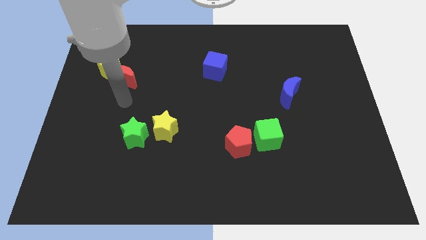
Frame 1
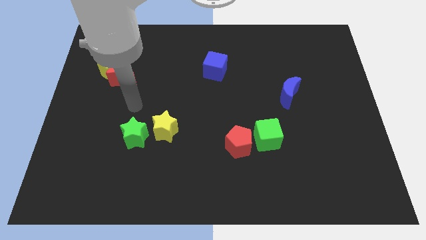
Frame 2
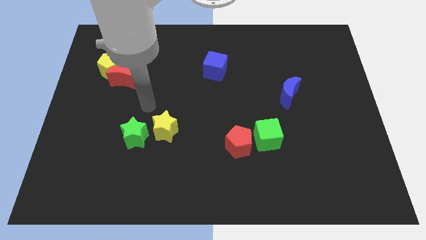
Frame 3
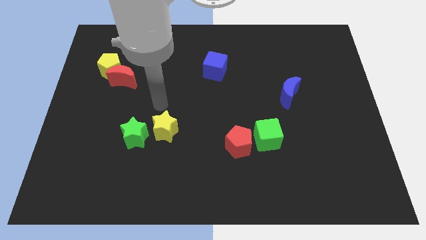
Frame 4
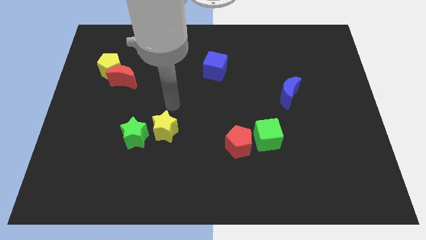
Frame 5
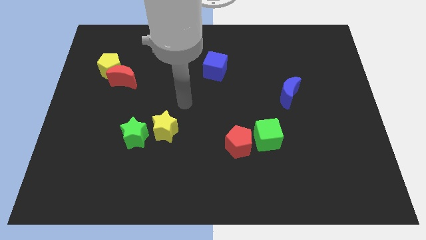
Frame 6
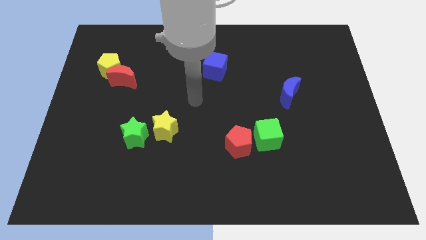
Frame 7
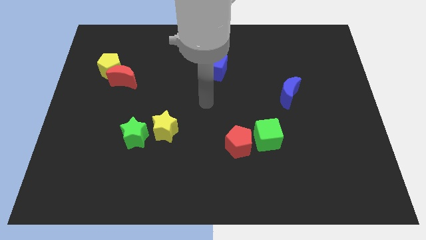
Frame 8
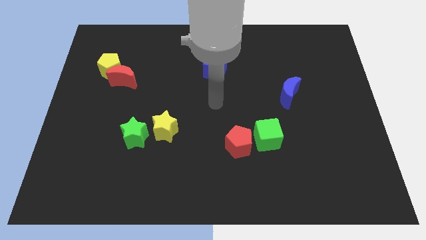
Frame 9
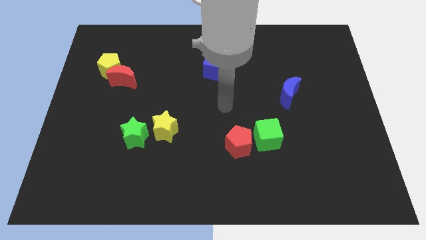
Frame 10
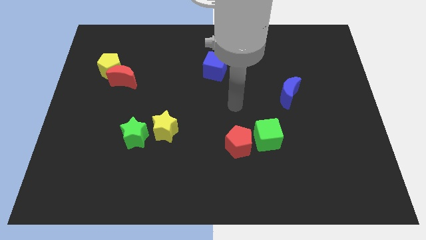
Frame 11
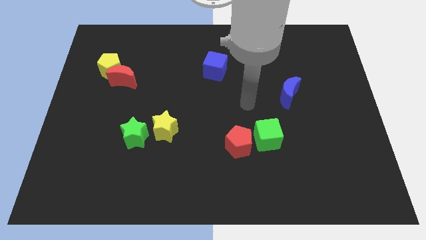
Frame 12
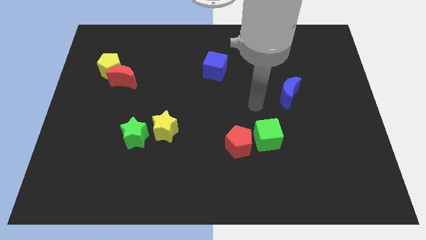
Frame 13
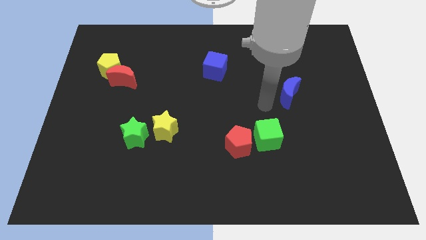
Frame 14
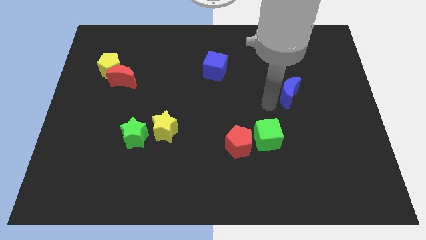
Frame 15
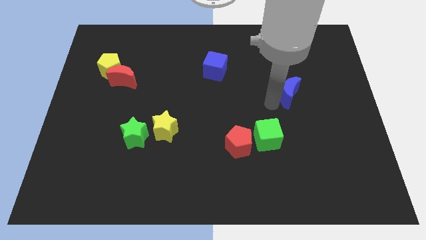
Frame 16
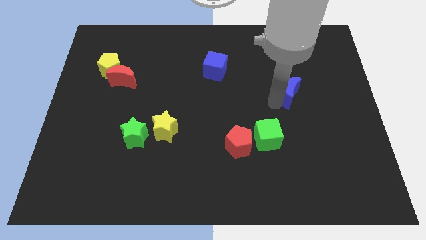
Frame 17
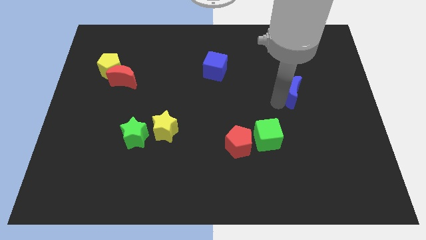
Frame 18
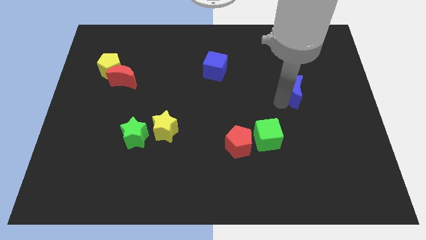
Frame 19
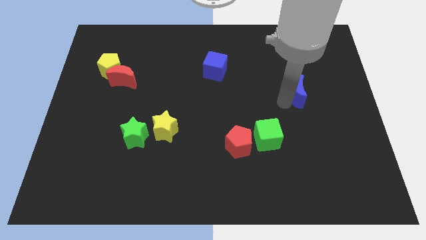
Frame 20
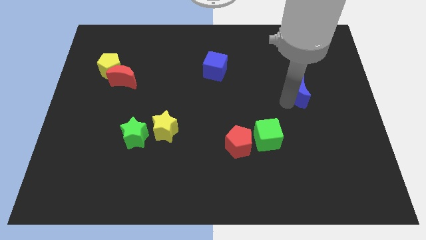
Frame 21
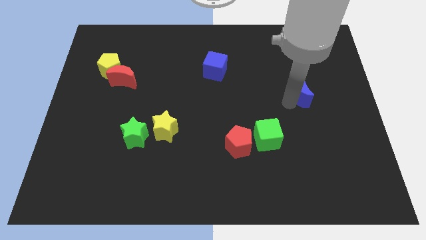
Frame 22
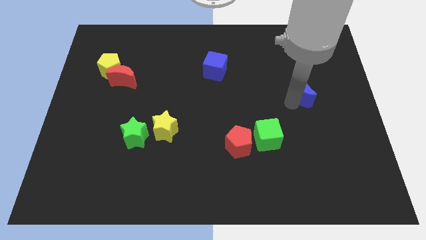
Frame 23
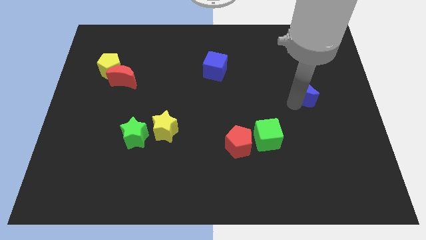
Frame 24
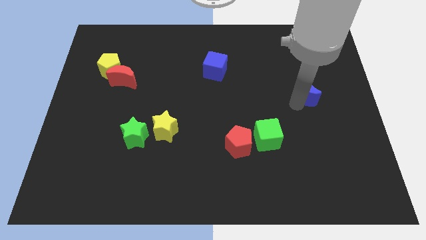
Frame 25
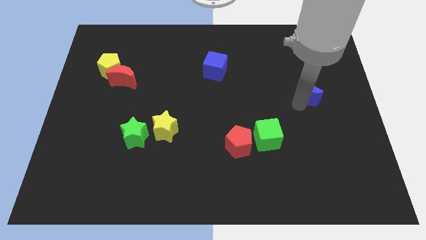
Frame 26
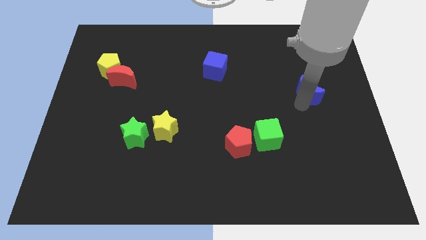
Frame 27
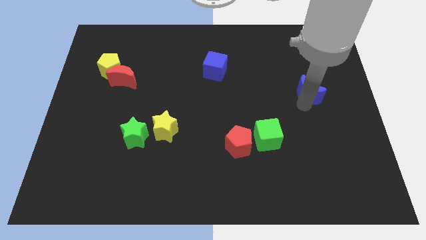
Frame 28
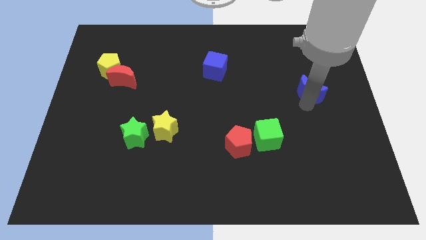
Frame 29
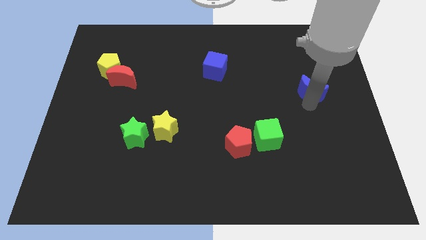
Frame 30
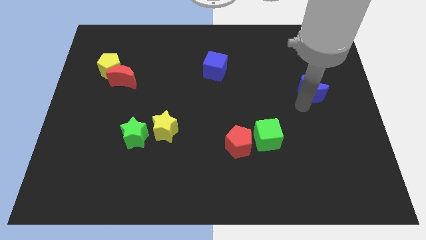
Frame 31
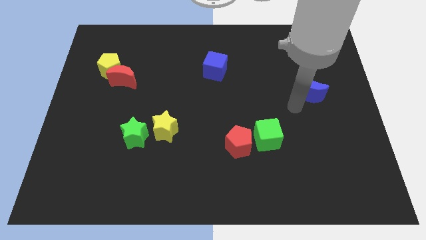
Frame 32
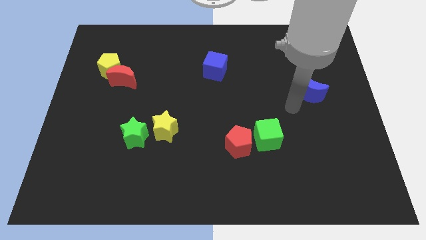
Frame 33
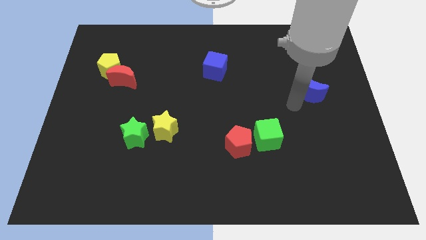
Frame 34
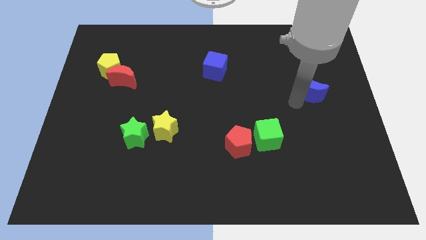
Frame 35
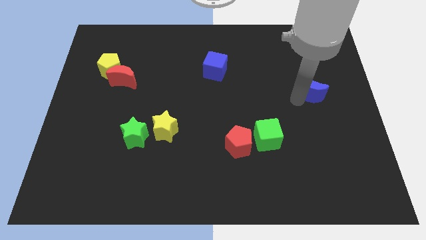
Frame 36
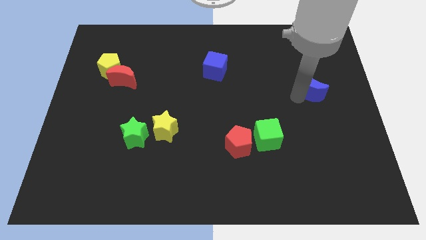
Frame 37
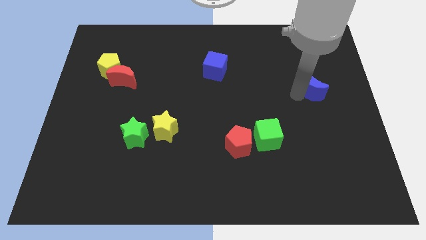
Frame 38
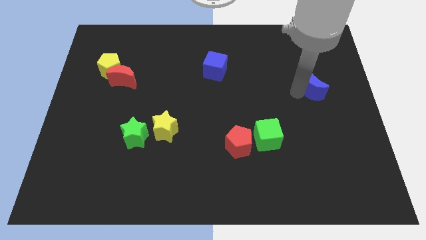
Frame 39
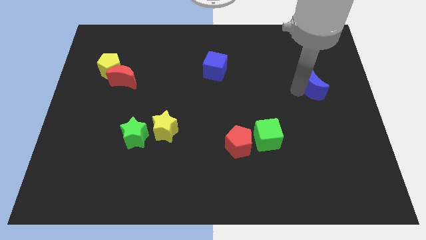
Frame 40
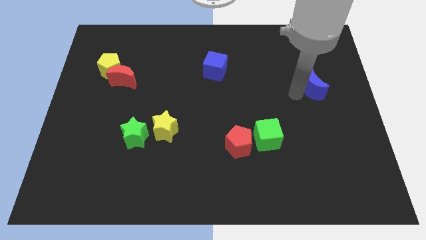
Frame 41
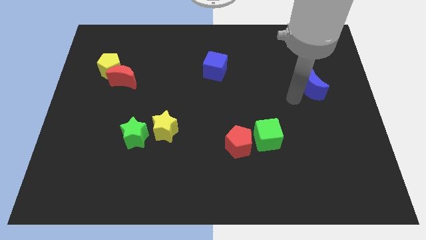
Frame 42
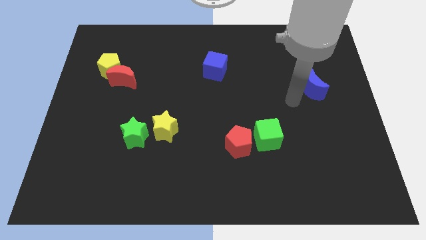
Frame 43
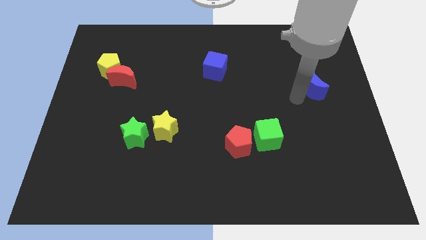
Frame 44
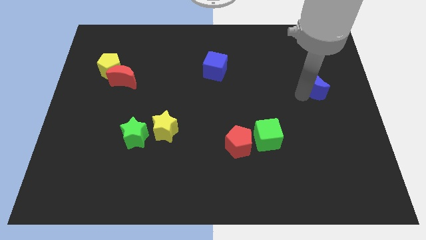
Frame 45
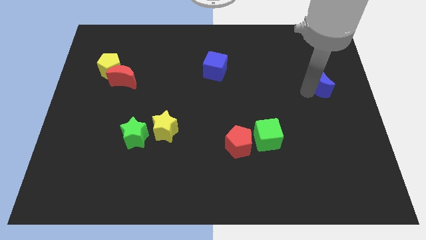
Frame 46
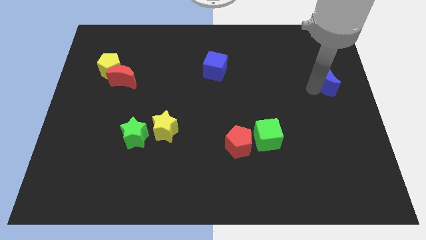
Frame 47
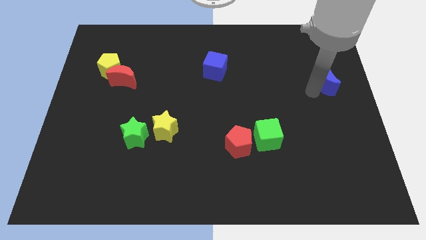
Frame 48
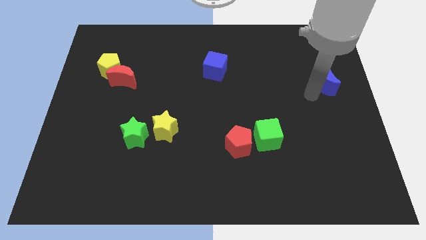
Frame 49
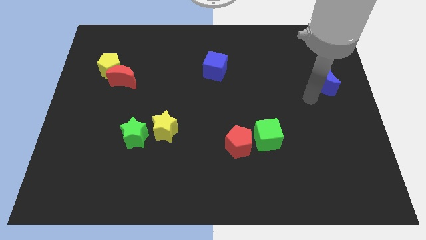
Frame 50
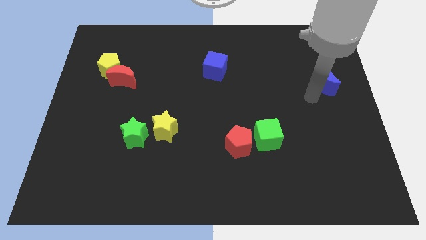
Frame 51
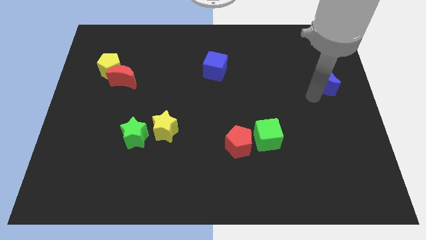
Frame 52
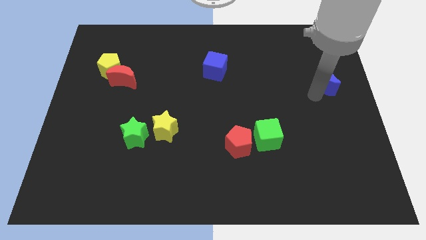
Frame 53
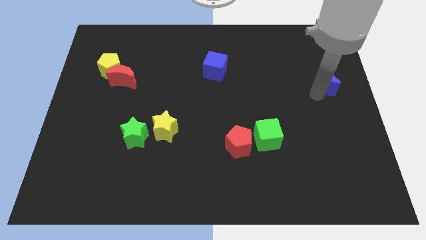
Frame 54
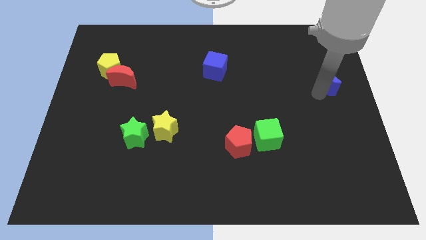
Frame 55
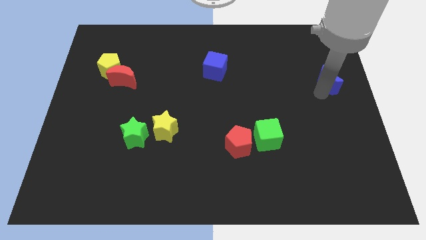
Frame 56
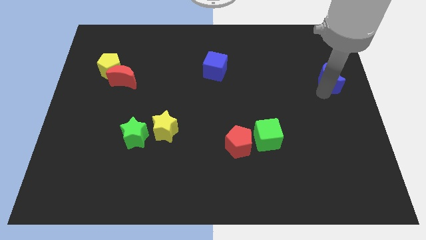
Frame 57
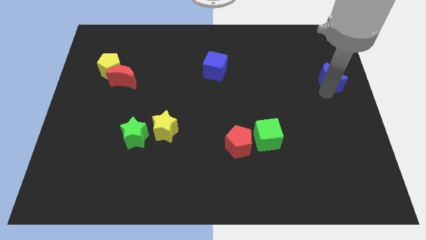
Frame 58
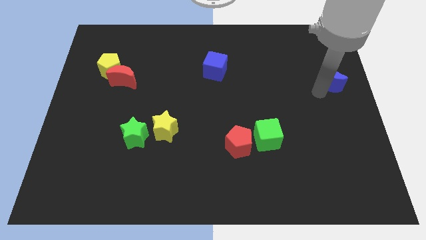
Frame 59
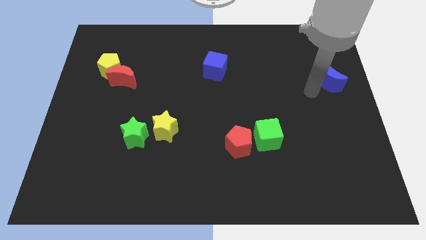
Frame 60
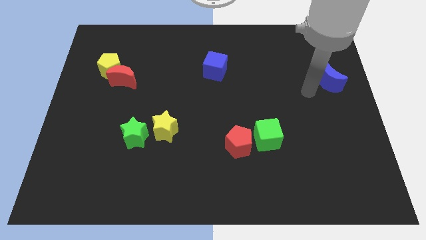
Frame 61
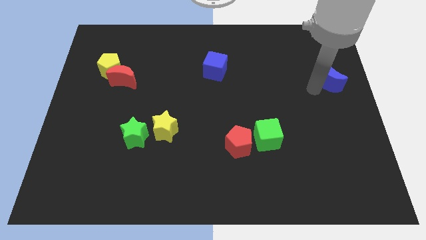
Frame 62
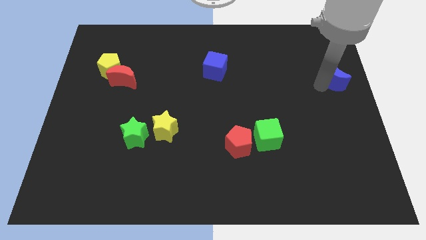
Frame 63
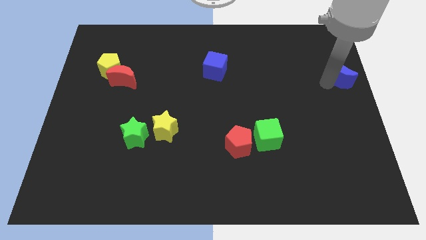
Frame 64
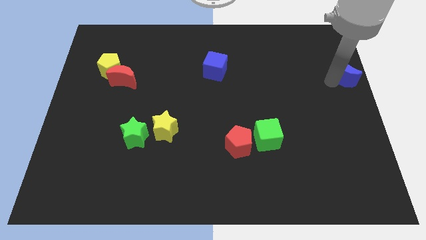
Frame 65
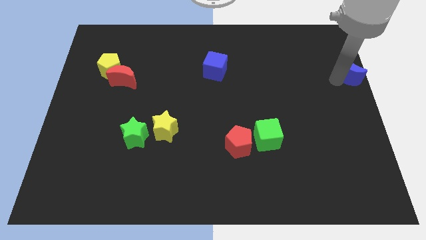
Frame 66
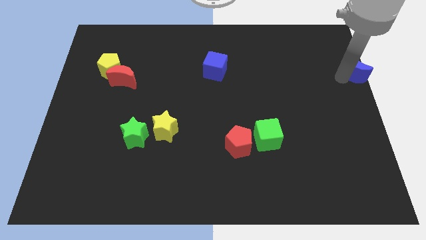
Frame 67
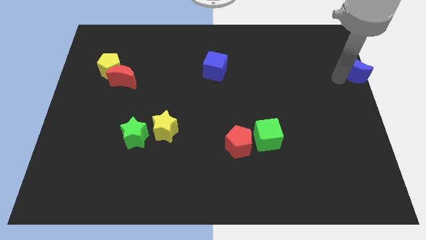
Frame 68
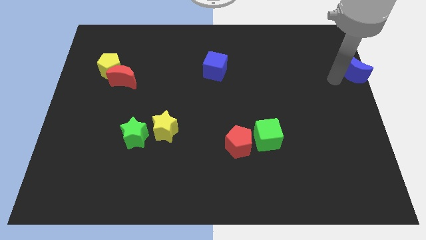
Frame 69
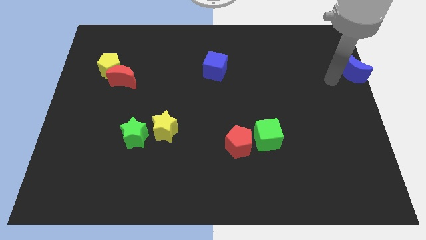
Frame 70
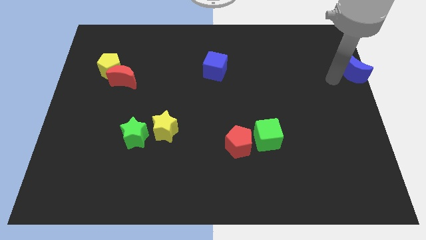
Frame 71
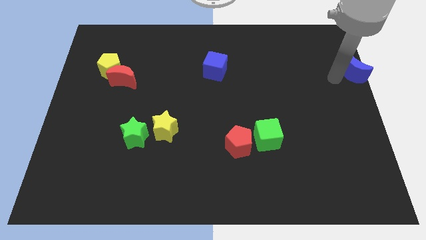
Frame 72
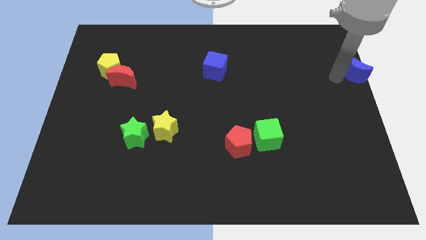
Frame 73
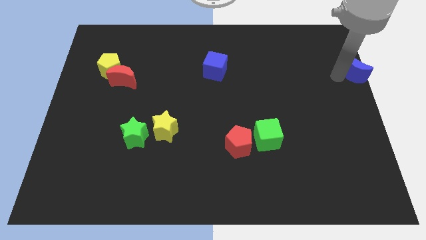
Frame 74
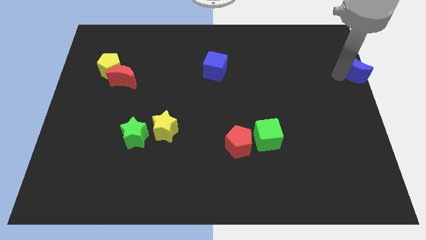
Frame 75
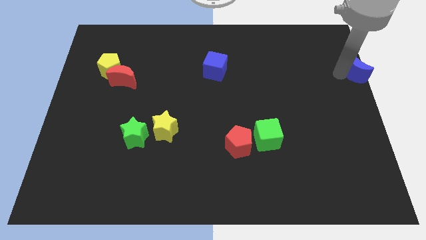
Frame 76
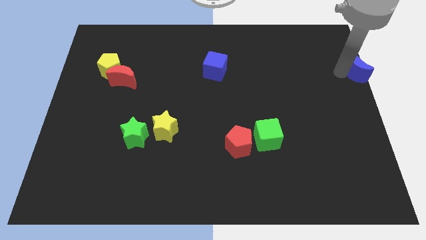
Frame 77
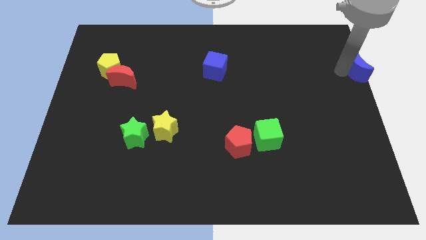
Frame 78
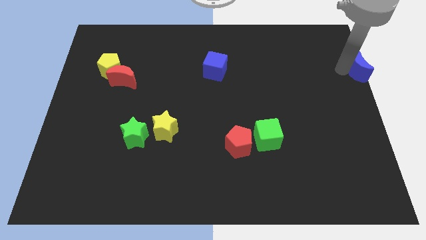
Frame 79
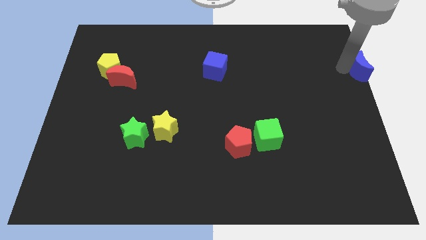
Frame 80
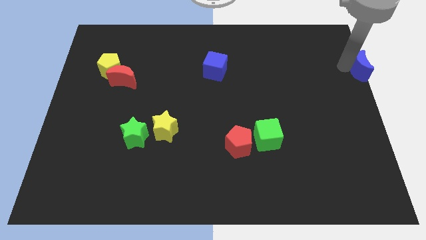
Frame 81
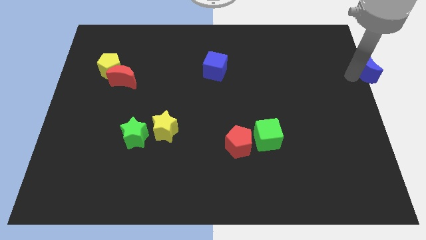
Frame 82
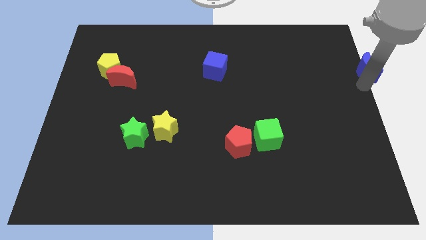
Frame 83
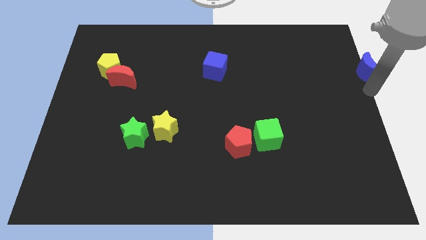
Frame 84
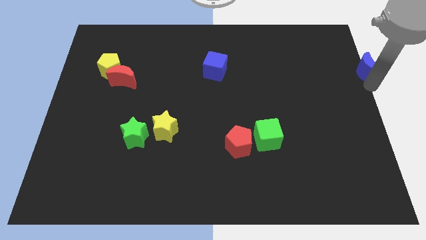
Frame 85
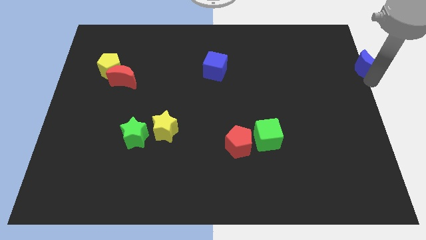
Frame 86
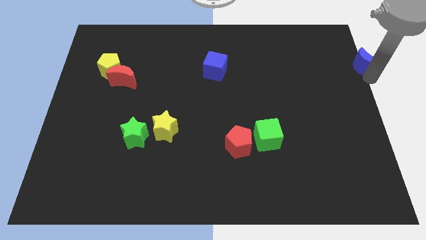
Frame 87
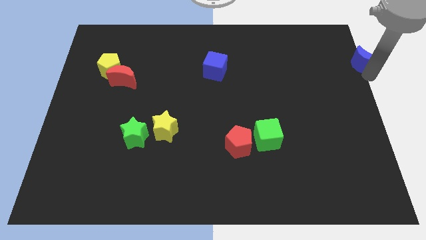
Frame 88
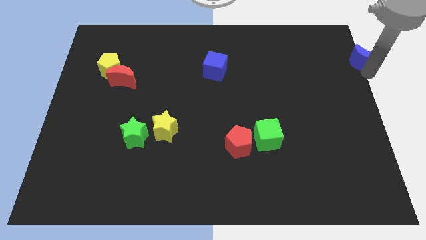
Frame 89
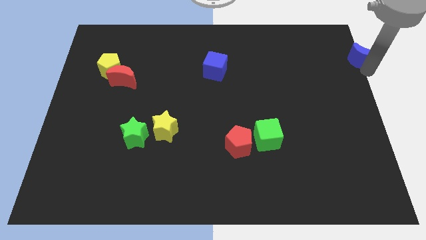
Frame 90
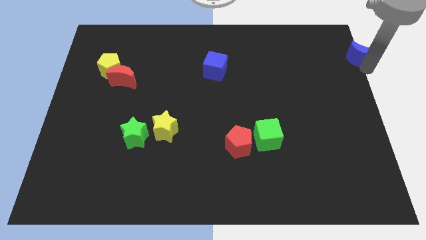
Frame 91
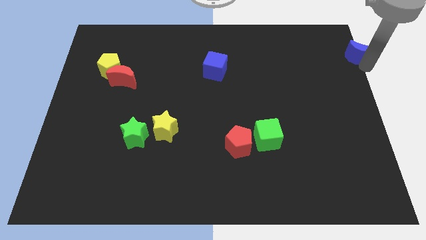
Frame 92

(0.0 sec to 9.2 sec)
put the blue moon to the top right
